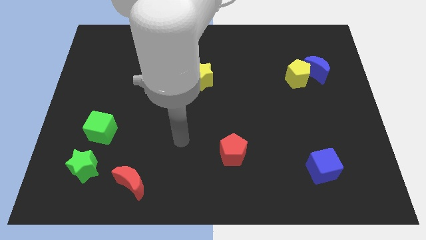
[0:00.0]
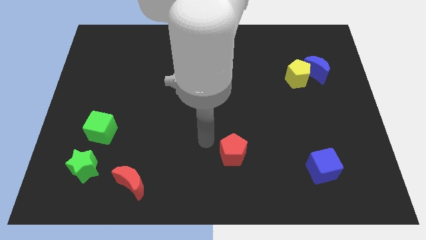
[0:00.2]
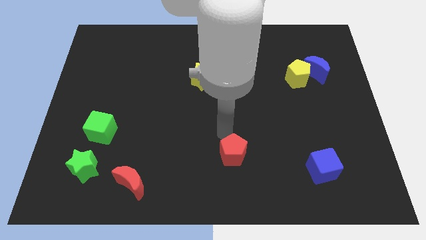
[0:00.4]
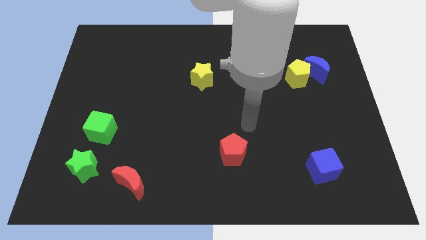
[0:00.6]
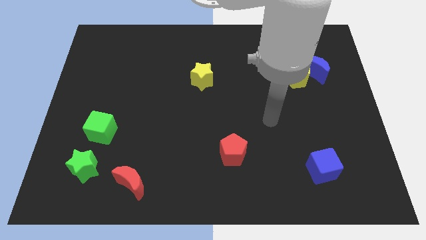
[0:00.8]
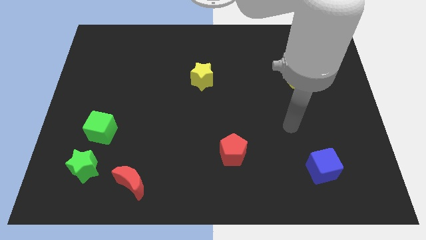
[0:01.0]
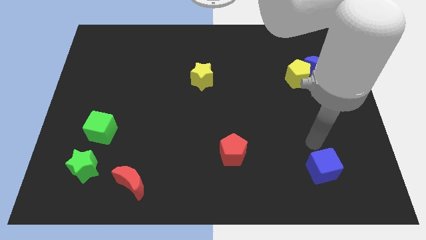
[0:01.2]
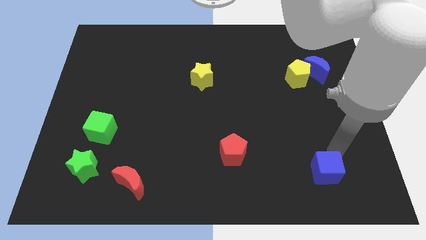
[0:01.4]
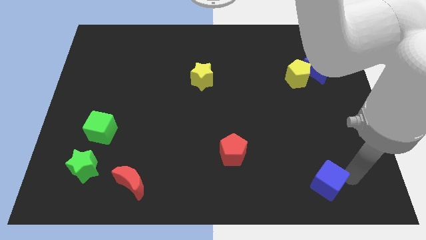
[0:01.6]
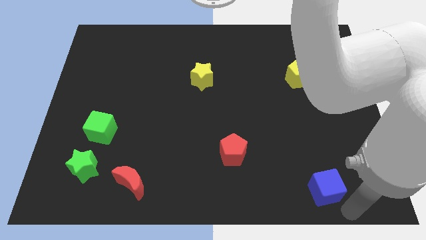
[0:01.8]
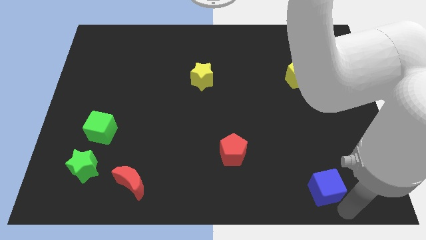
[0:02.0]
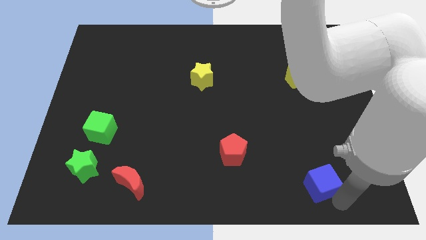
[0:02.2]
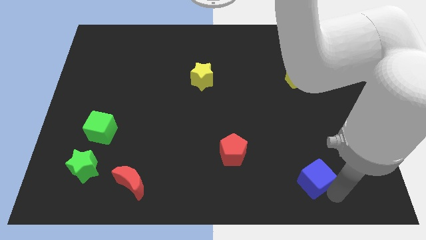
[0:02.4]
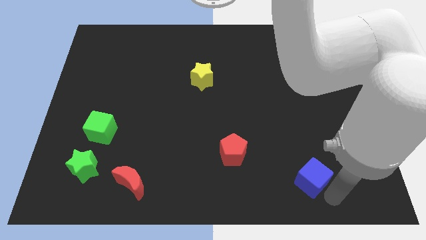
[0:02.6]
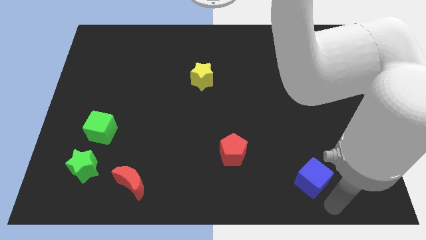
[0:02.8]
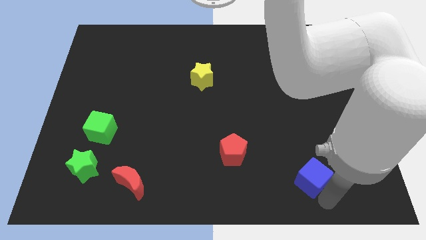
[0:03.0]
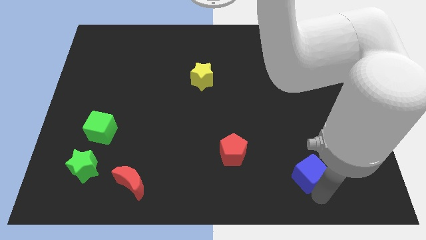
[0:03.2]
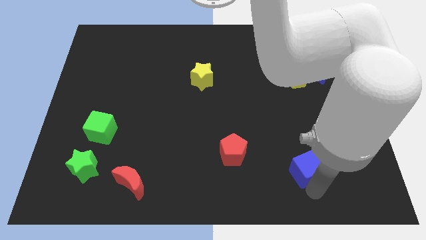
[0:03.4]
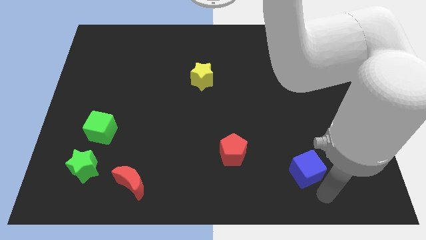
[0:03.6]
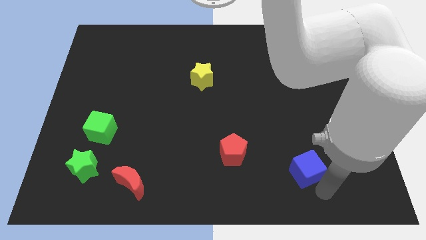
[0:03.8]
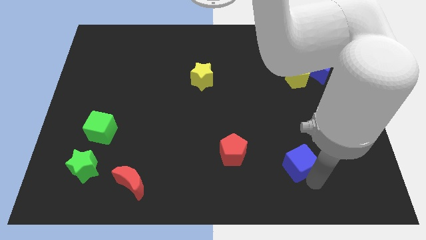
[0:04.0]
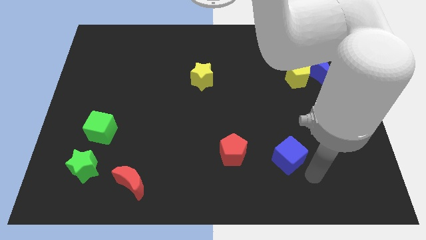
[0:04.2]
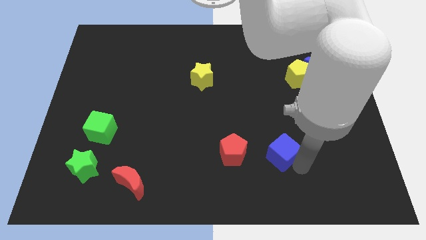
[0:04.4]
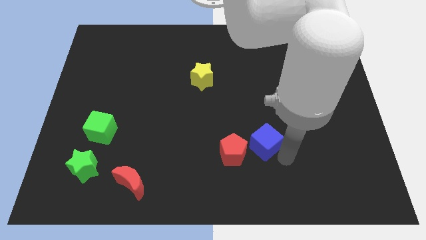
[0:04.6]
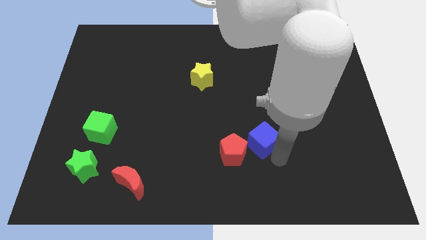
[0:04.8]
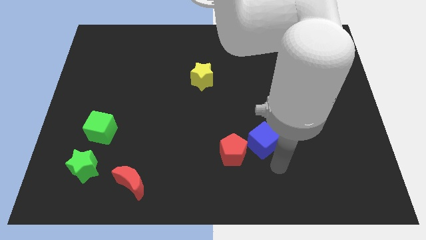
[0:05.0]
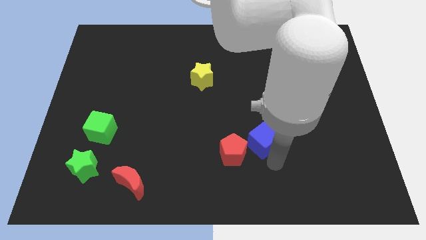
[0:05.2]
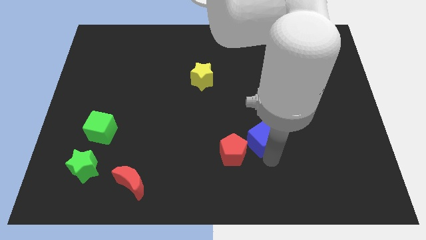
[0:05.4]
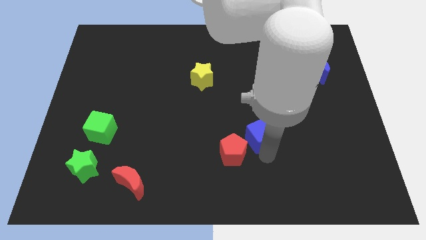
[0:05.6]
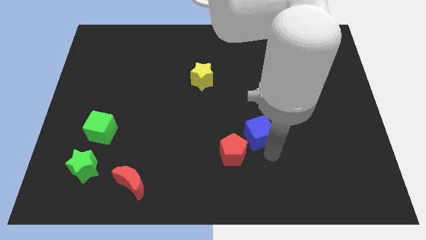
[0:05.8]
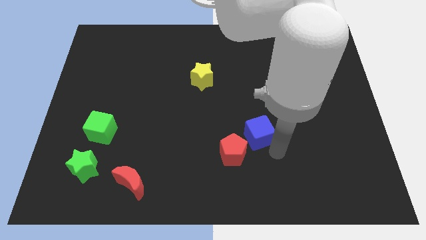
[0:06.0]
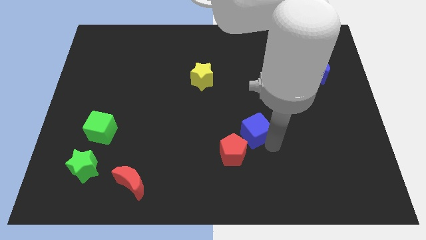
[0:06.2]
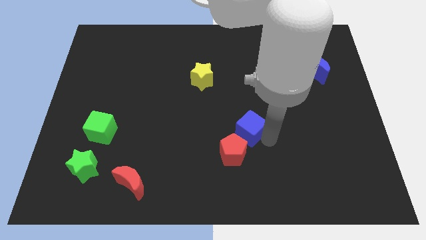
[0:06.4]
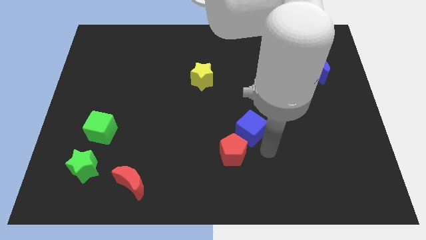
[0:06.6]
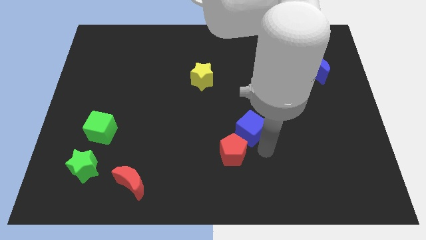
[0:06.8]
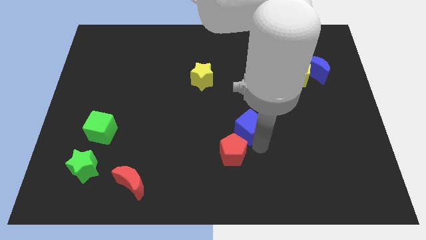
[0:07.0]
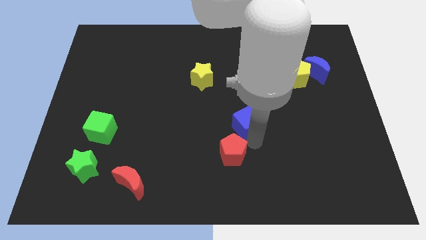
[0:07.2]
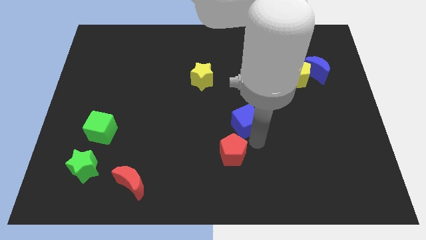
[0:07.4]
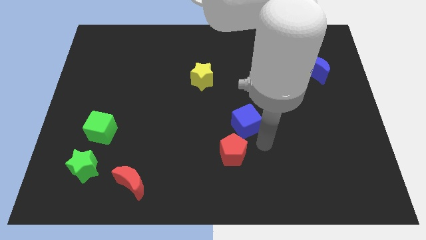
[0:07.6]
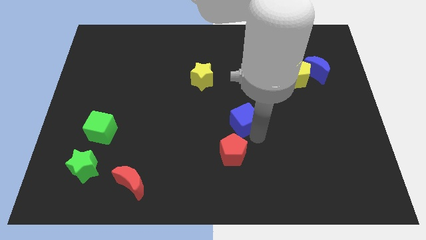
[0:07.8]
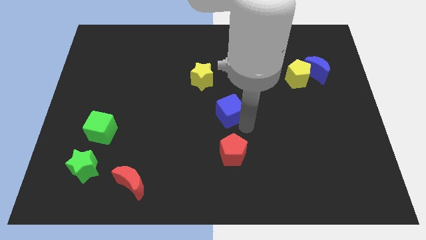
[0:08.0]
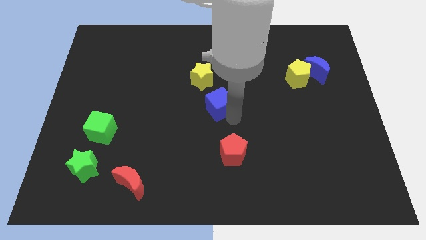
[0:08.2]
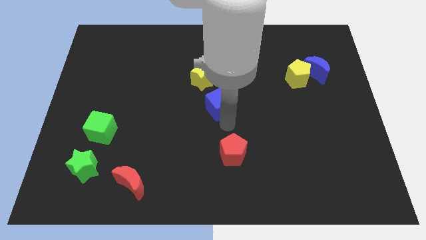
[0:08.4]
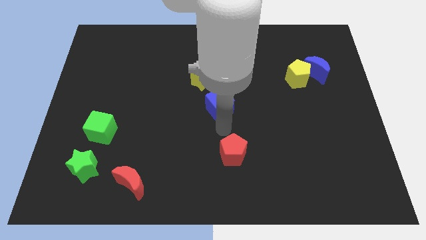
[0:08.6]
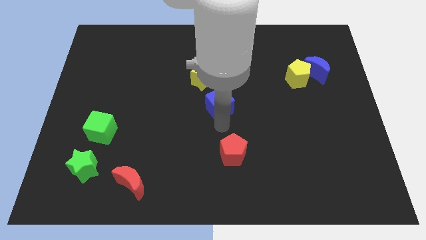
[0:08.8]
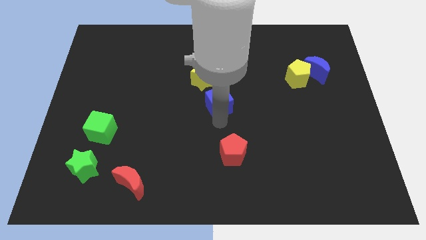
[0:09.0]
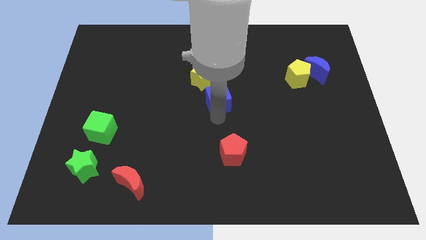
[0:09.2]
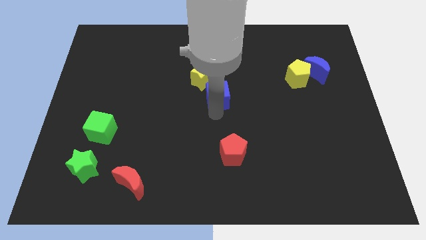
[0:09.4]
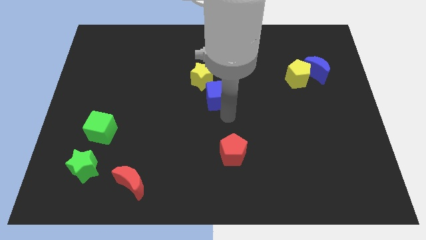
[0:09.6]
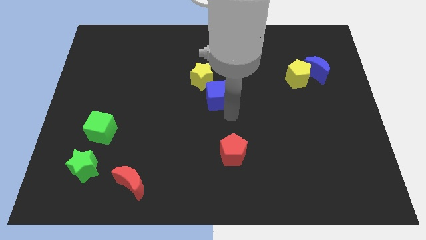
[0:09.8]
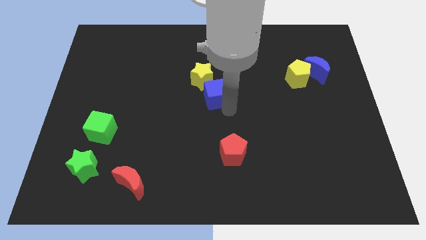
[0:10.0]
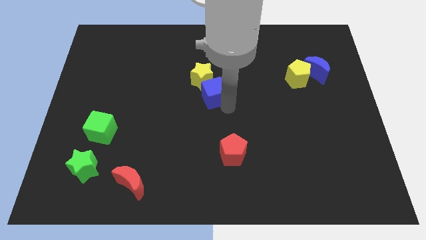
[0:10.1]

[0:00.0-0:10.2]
slide the blue cube to the yellow star

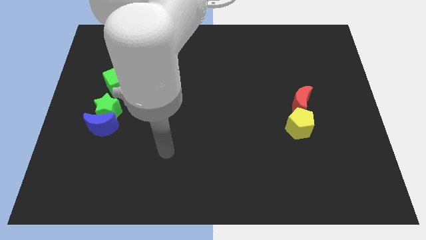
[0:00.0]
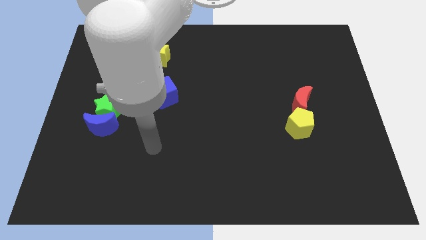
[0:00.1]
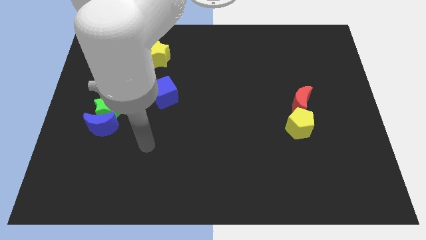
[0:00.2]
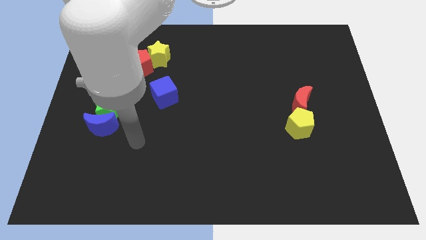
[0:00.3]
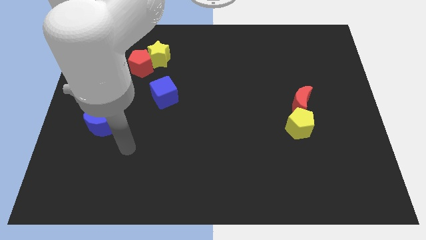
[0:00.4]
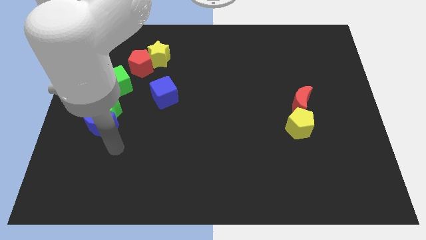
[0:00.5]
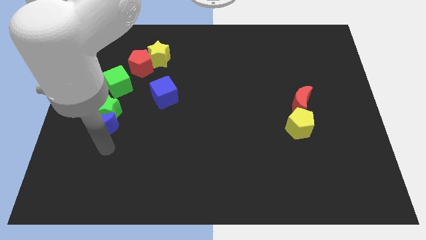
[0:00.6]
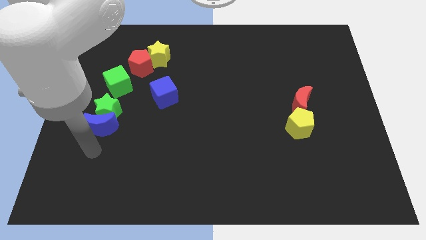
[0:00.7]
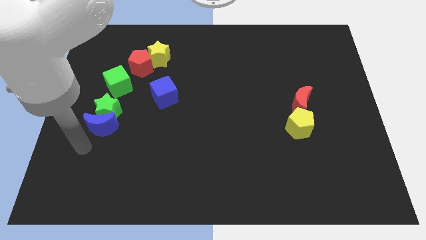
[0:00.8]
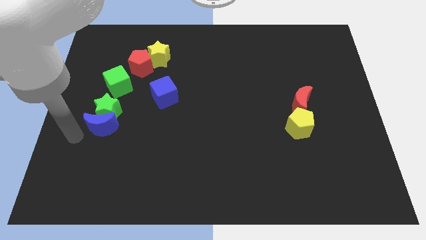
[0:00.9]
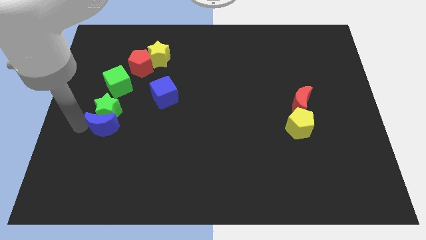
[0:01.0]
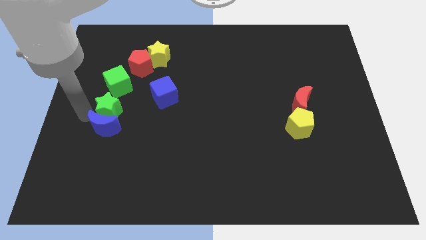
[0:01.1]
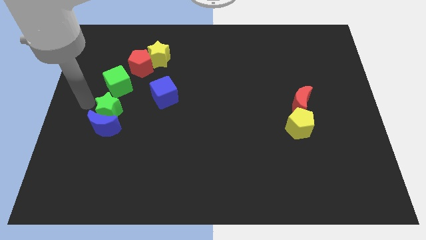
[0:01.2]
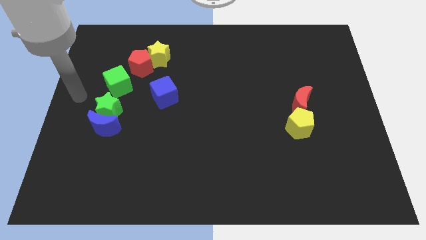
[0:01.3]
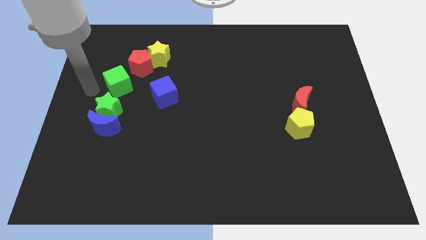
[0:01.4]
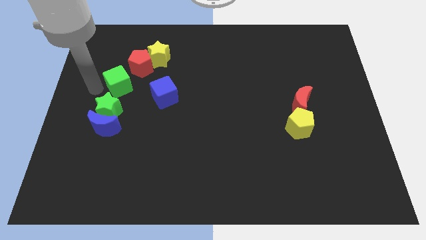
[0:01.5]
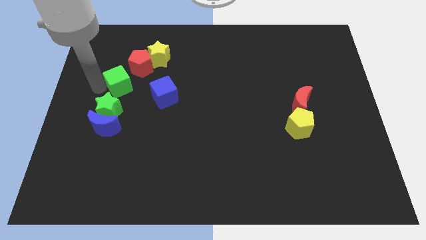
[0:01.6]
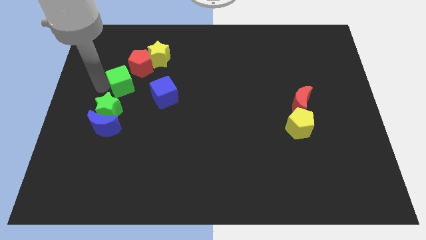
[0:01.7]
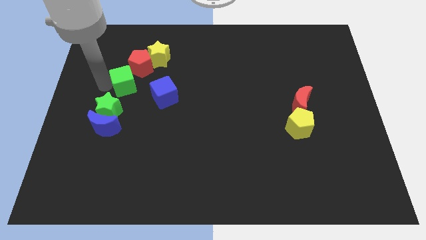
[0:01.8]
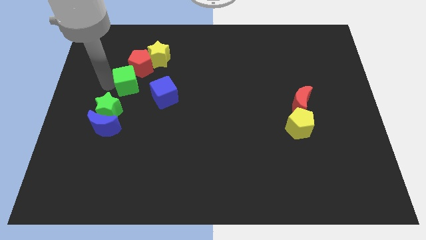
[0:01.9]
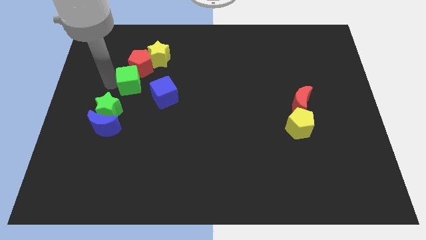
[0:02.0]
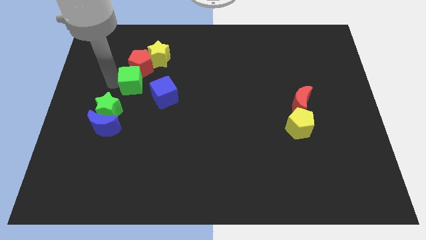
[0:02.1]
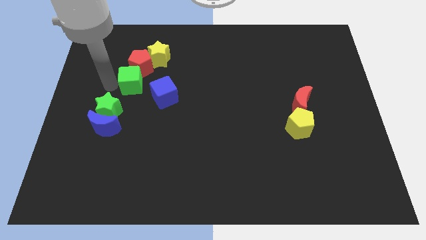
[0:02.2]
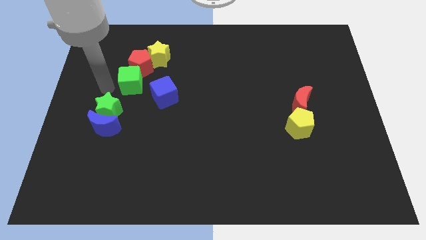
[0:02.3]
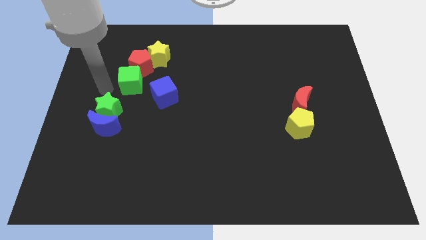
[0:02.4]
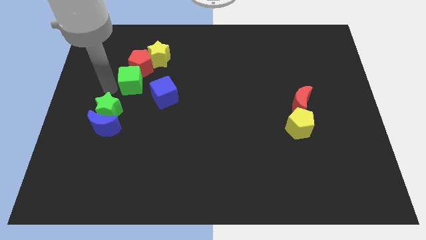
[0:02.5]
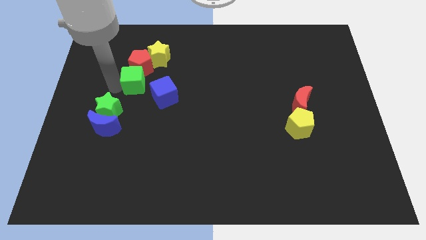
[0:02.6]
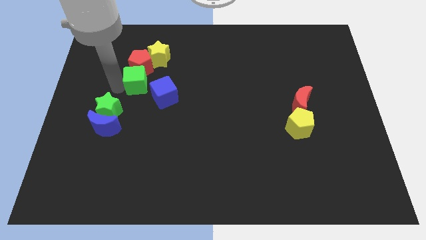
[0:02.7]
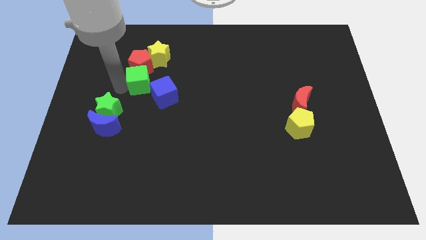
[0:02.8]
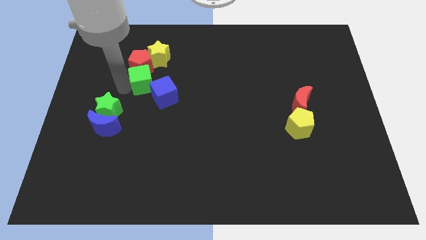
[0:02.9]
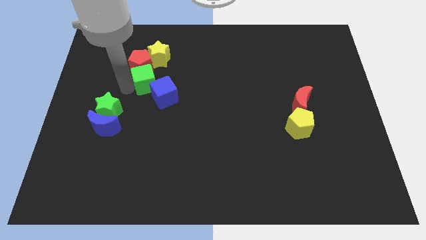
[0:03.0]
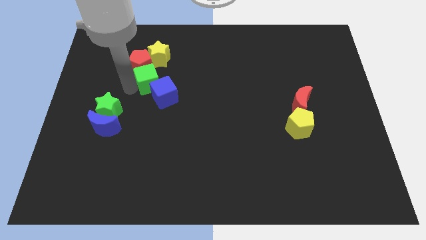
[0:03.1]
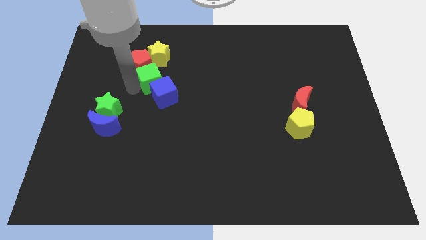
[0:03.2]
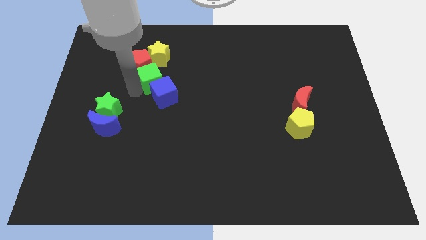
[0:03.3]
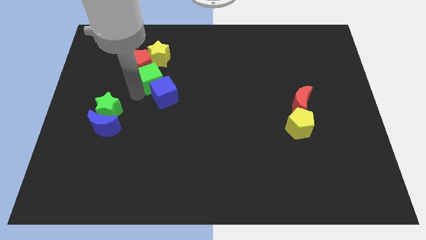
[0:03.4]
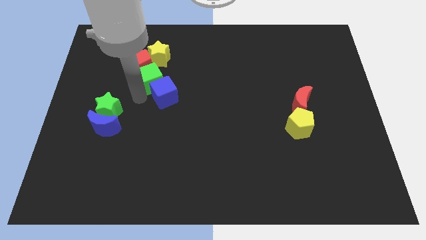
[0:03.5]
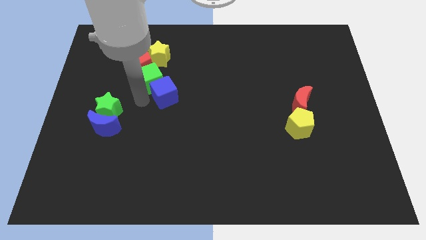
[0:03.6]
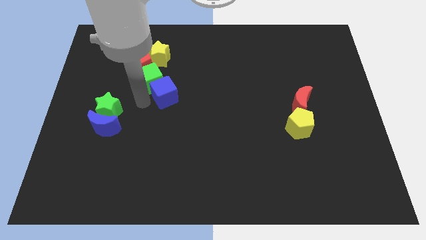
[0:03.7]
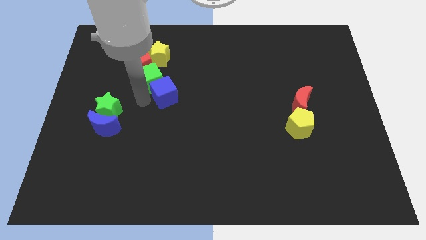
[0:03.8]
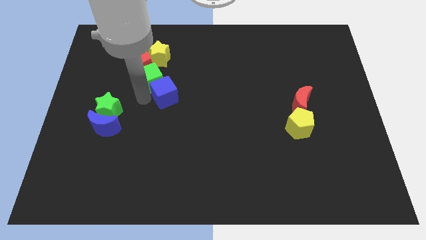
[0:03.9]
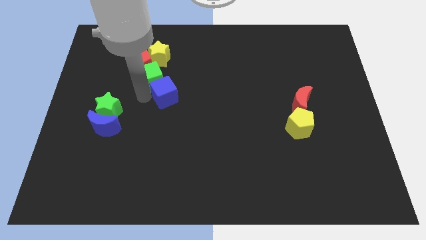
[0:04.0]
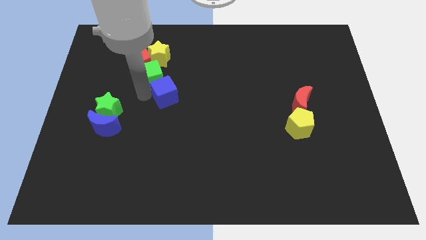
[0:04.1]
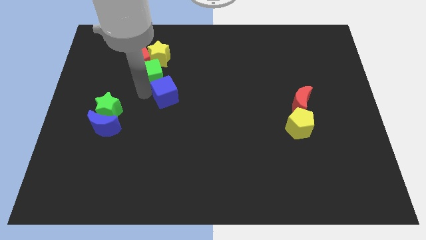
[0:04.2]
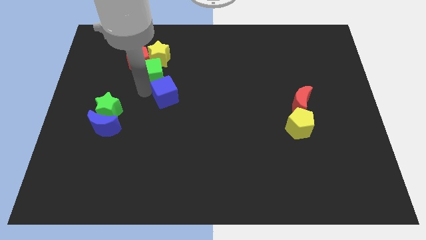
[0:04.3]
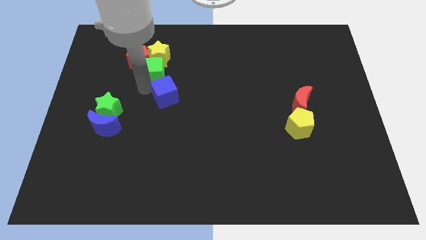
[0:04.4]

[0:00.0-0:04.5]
push the green cube close to the yellow star
